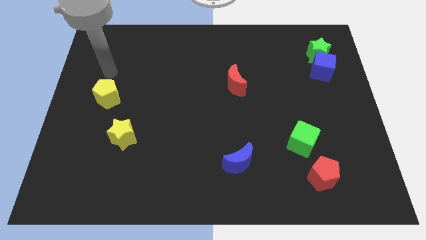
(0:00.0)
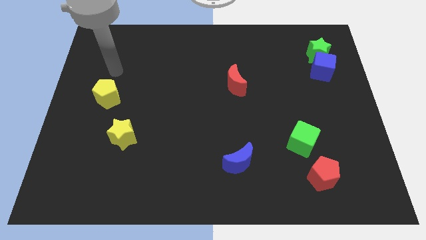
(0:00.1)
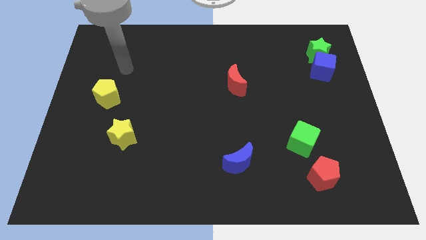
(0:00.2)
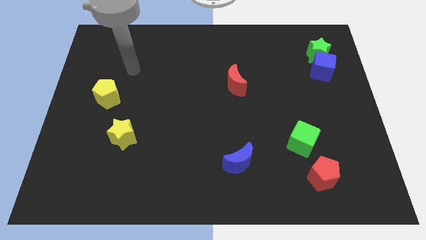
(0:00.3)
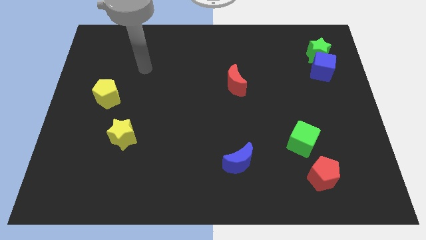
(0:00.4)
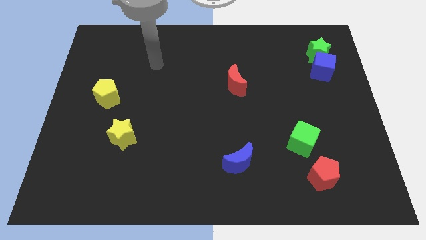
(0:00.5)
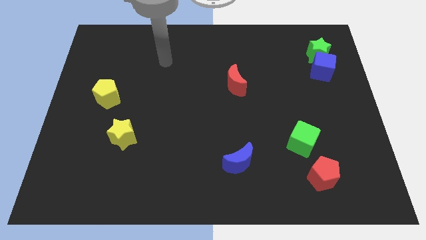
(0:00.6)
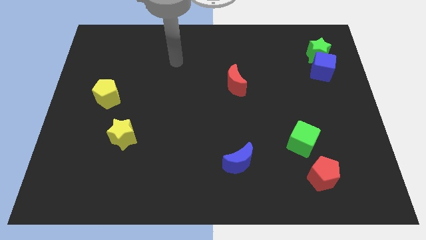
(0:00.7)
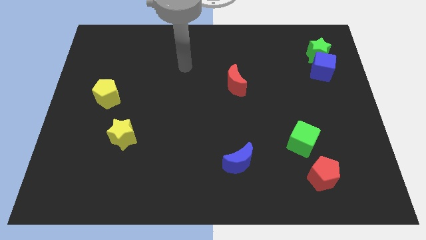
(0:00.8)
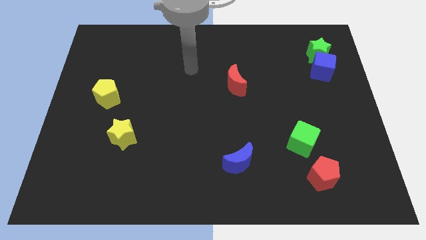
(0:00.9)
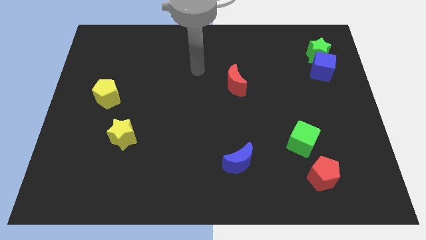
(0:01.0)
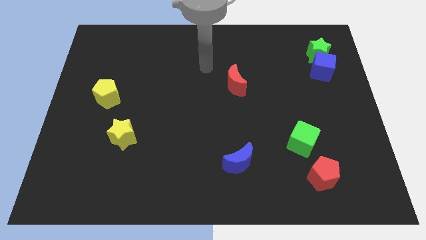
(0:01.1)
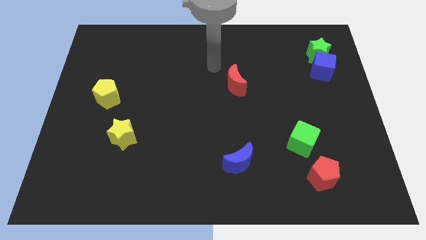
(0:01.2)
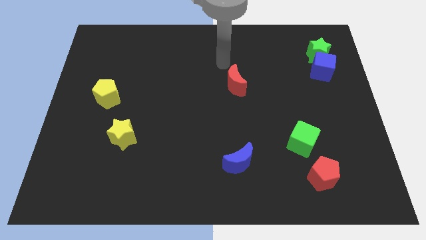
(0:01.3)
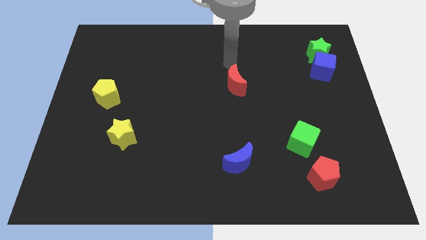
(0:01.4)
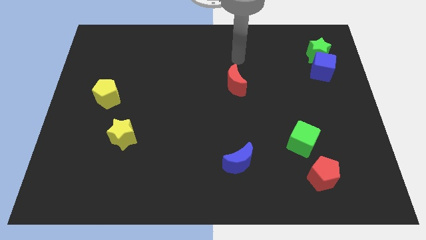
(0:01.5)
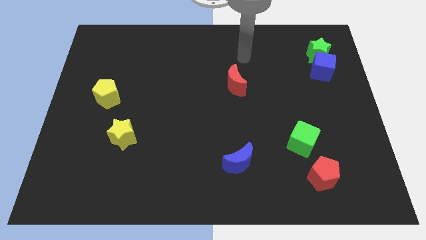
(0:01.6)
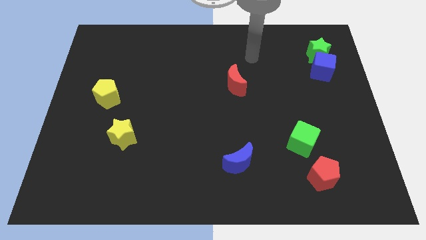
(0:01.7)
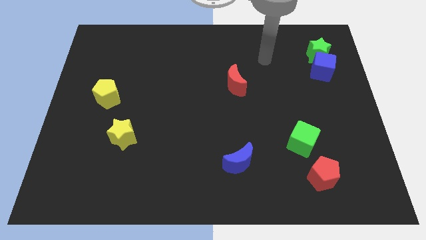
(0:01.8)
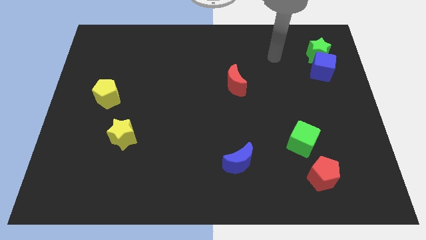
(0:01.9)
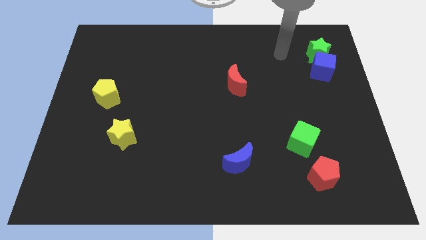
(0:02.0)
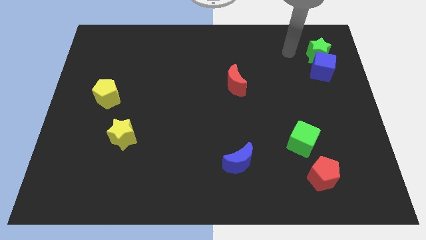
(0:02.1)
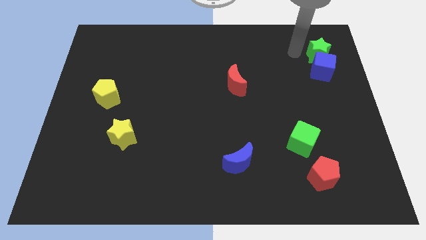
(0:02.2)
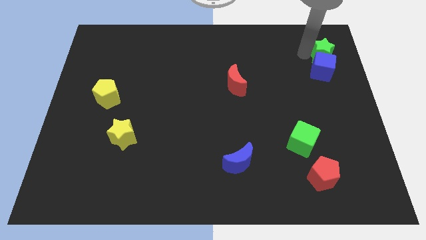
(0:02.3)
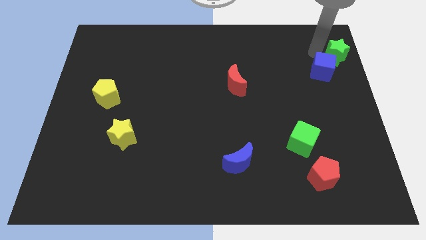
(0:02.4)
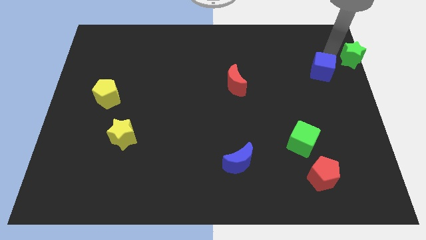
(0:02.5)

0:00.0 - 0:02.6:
move the blue cube away from the green star

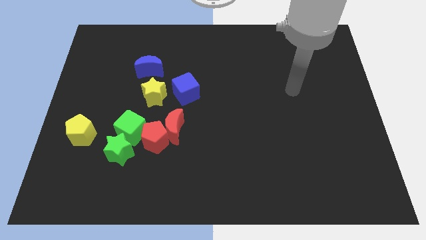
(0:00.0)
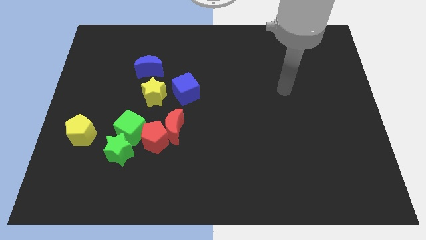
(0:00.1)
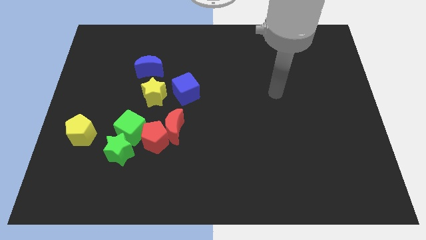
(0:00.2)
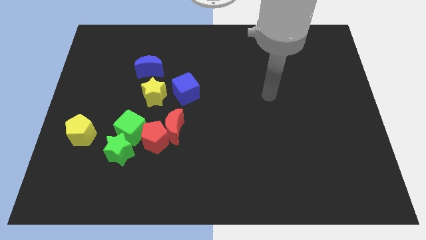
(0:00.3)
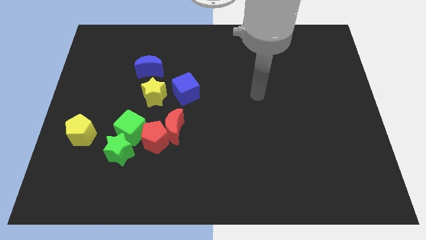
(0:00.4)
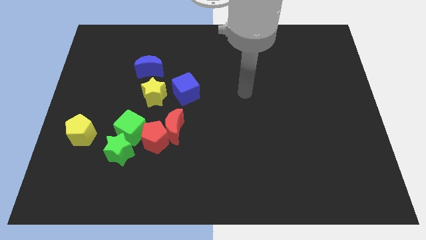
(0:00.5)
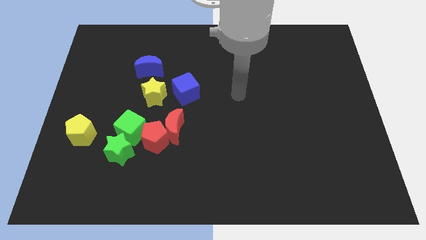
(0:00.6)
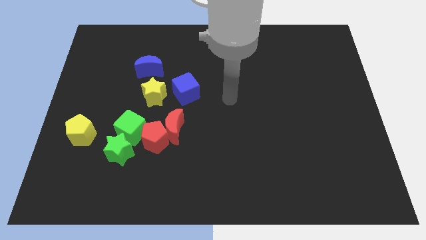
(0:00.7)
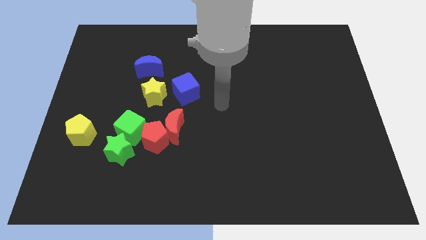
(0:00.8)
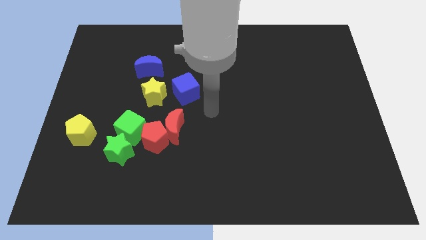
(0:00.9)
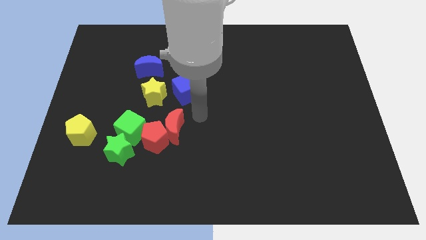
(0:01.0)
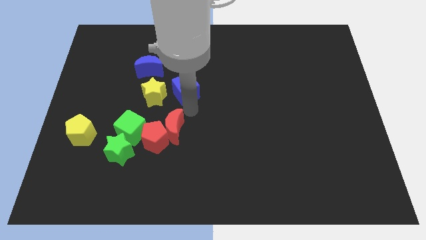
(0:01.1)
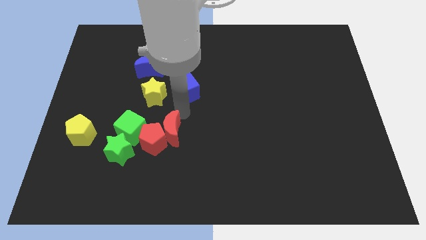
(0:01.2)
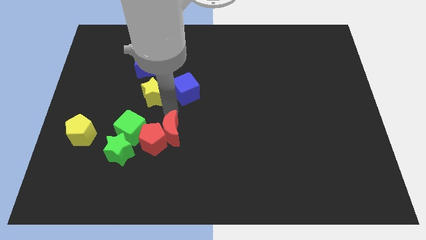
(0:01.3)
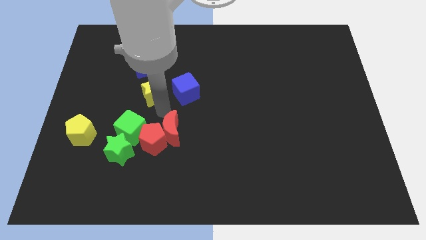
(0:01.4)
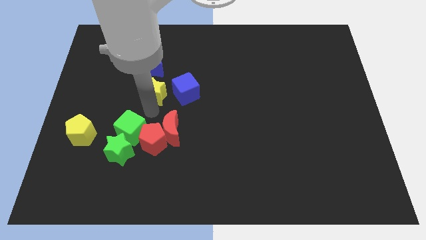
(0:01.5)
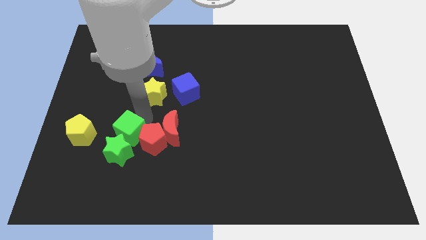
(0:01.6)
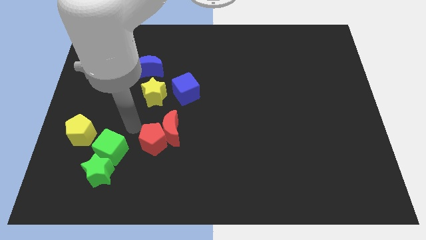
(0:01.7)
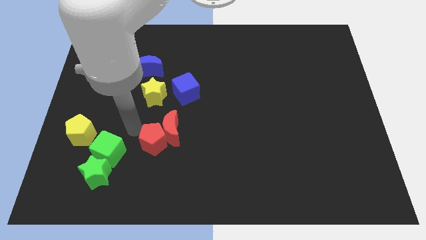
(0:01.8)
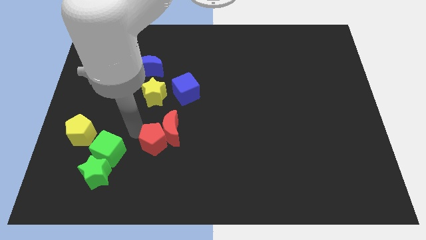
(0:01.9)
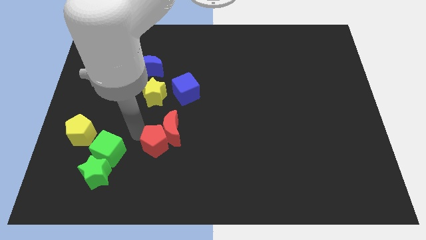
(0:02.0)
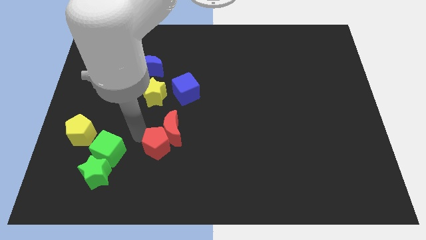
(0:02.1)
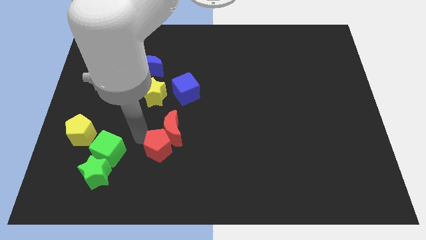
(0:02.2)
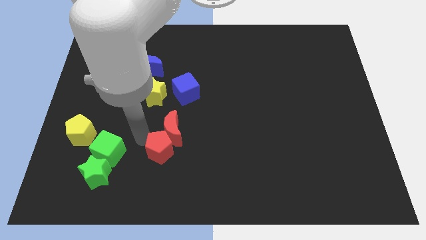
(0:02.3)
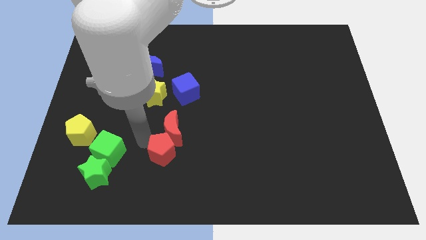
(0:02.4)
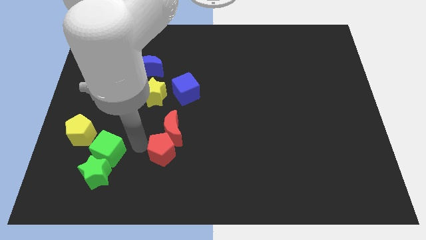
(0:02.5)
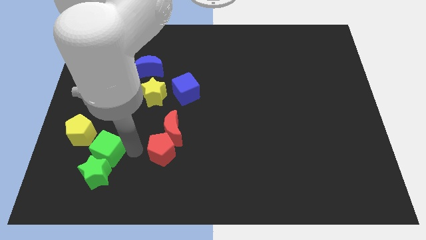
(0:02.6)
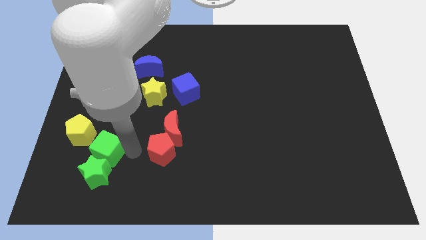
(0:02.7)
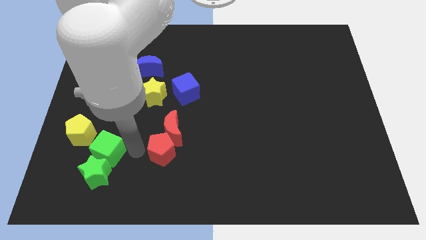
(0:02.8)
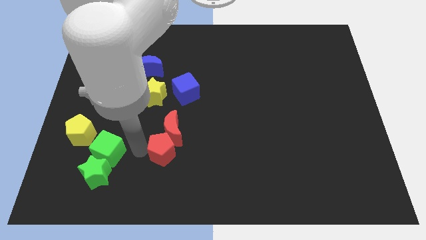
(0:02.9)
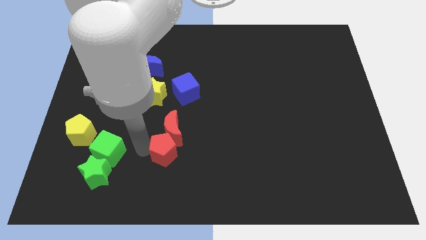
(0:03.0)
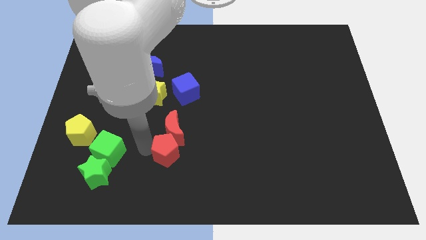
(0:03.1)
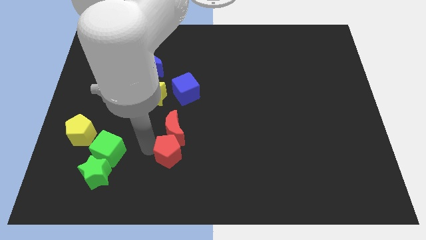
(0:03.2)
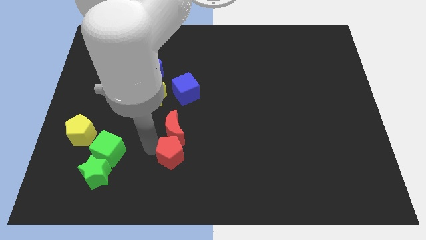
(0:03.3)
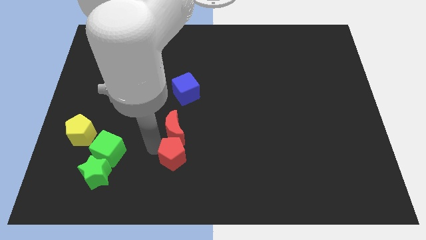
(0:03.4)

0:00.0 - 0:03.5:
pull the red pentagon apart from the red moon, green cube, and green star

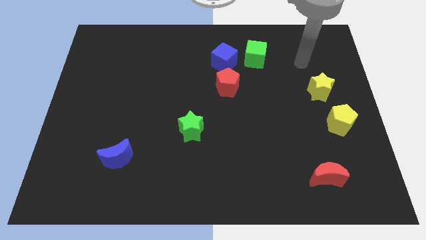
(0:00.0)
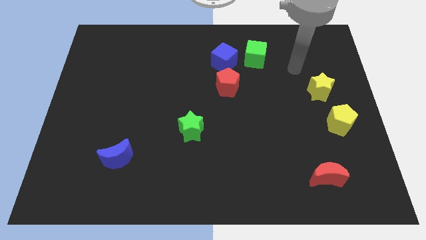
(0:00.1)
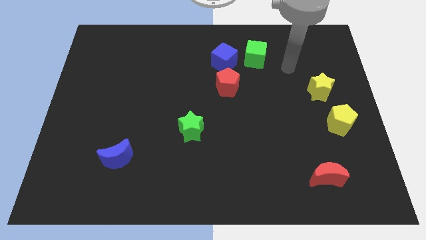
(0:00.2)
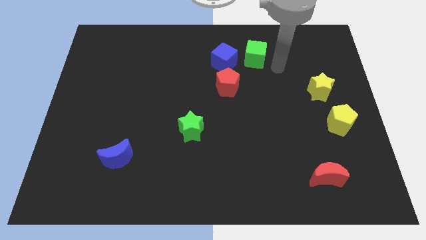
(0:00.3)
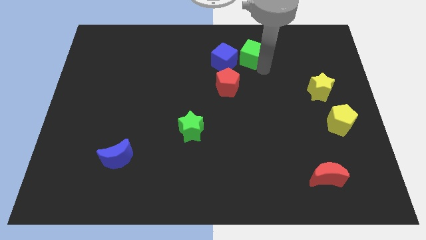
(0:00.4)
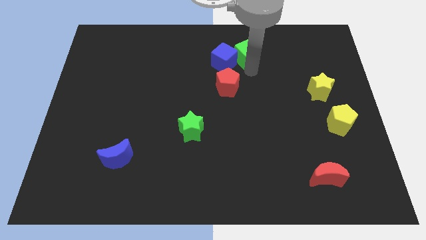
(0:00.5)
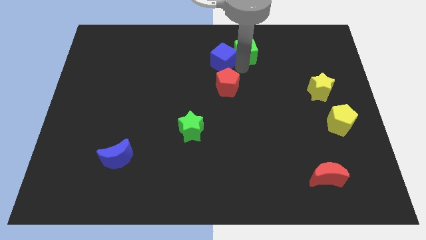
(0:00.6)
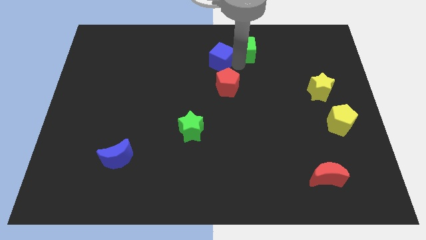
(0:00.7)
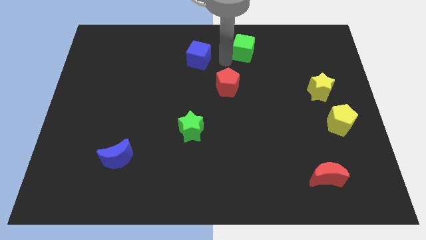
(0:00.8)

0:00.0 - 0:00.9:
pull the green cube apart from the blue cube

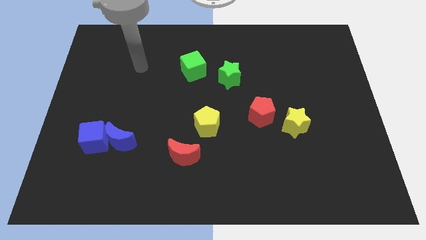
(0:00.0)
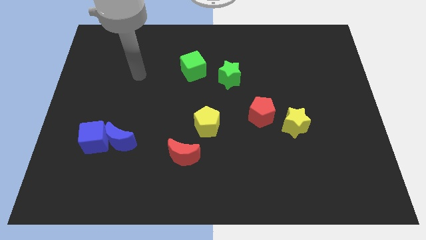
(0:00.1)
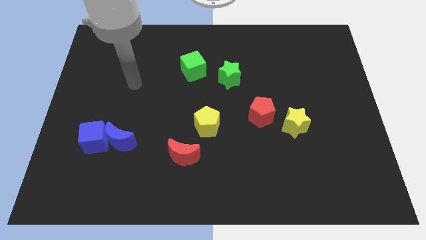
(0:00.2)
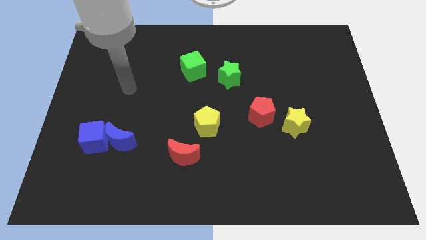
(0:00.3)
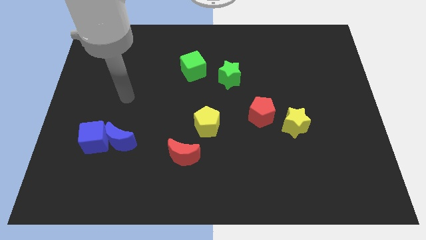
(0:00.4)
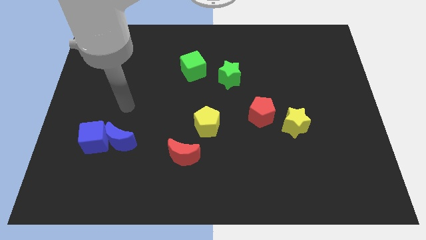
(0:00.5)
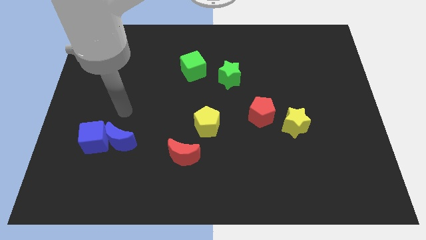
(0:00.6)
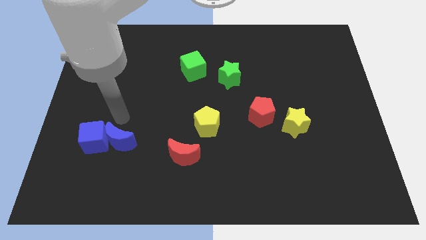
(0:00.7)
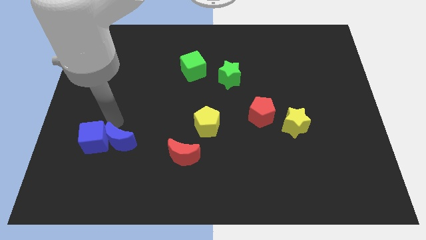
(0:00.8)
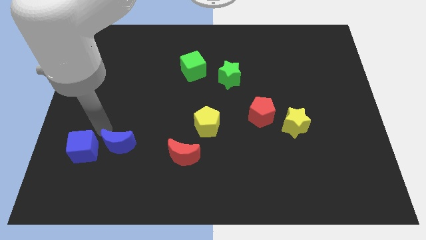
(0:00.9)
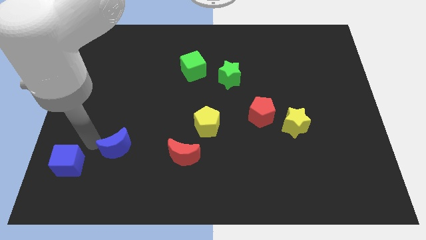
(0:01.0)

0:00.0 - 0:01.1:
pull the blue moon apart from the blue cube

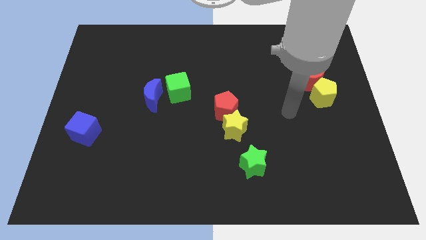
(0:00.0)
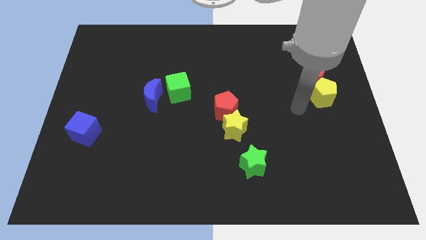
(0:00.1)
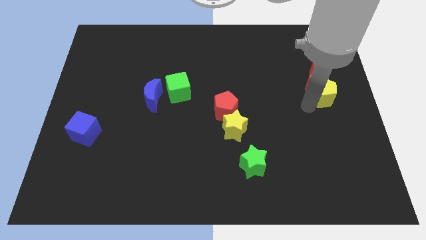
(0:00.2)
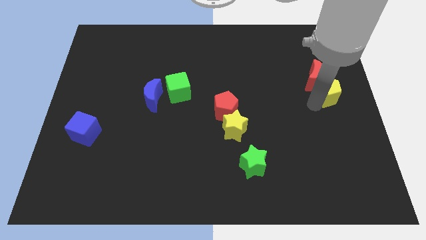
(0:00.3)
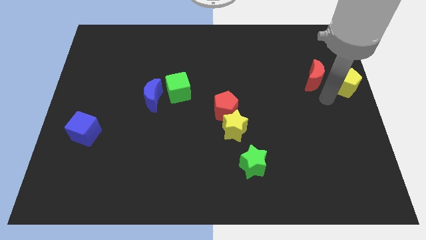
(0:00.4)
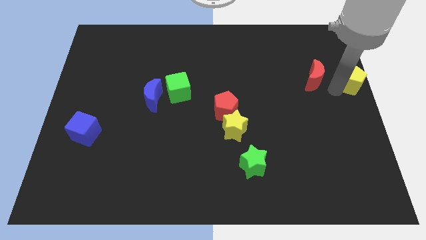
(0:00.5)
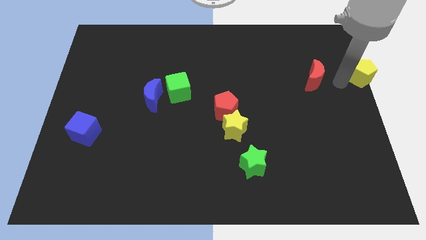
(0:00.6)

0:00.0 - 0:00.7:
pull the red moon apart from the yellow pentagon

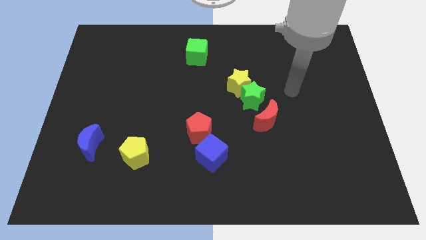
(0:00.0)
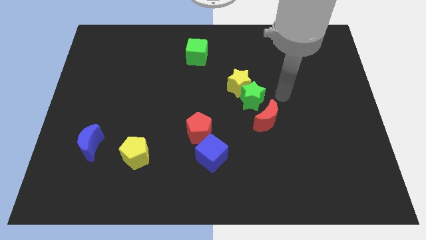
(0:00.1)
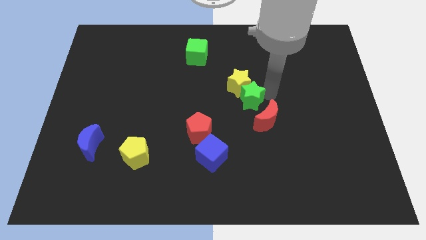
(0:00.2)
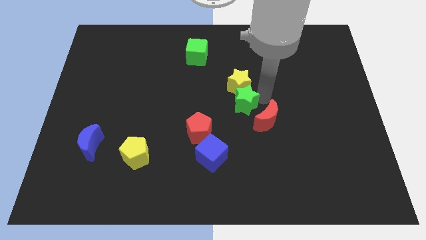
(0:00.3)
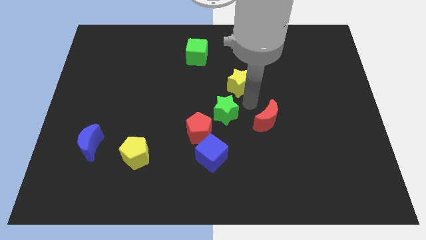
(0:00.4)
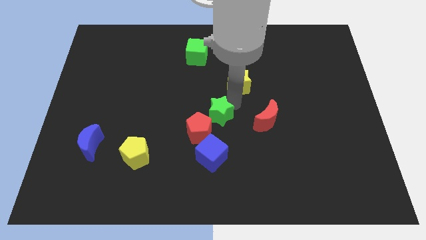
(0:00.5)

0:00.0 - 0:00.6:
pull the yellow star apart from the green star
